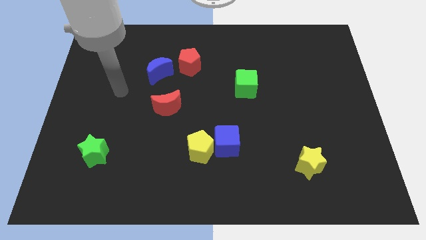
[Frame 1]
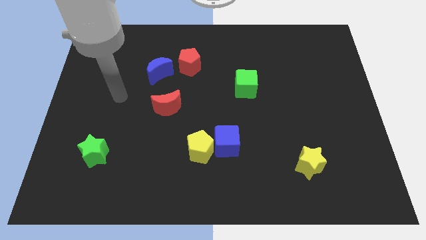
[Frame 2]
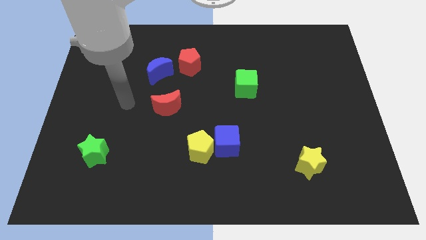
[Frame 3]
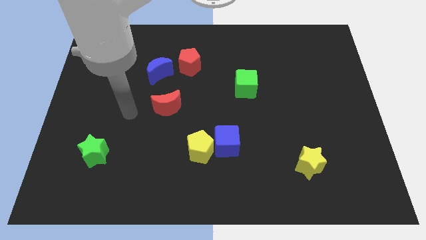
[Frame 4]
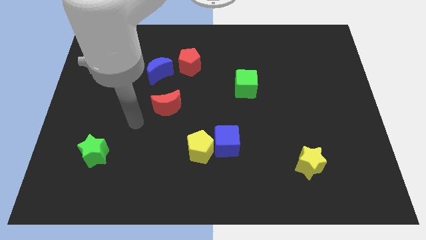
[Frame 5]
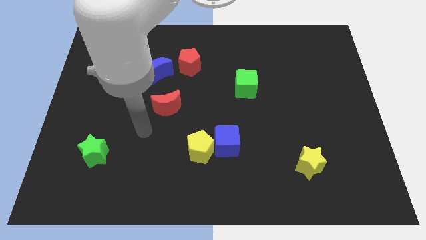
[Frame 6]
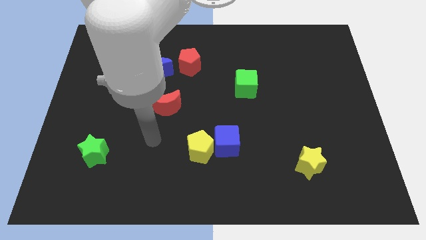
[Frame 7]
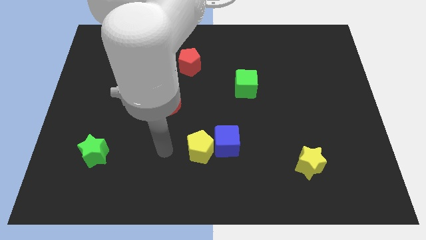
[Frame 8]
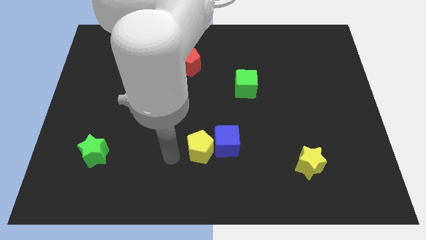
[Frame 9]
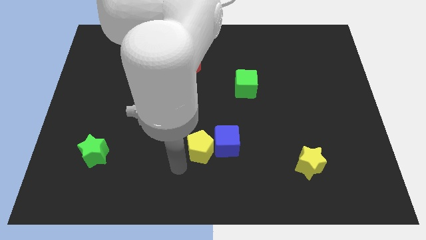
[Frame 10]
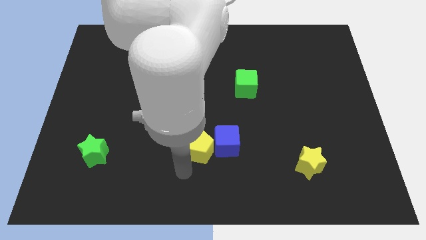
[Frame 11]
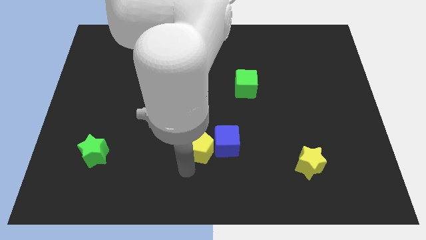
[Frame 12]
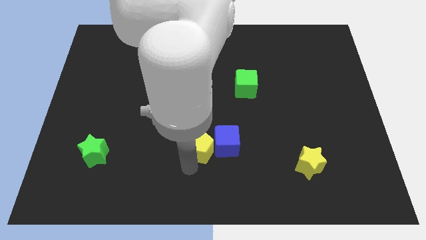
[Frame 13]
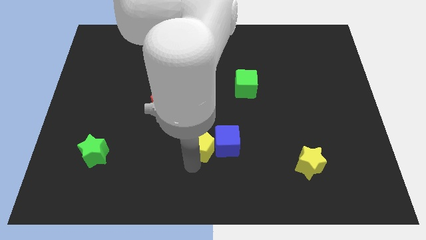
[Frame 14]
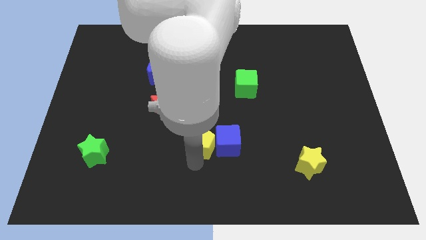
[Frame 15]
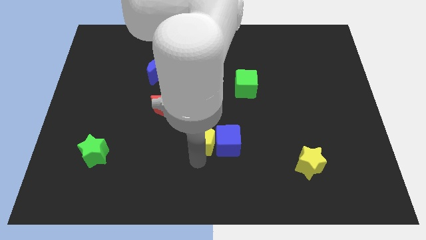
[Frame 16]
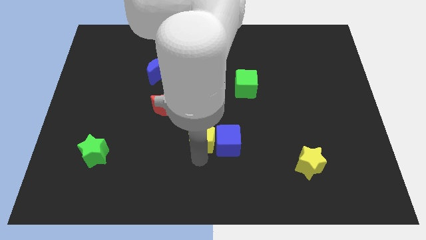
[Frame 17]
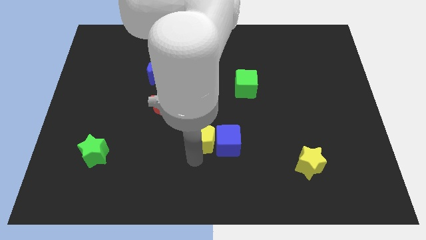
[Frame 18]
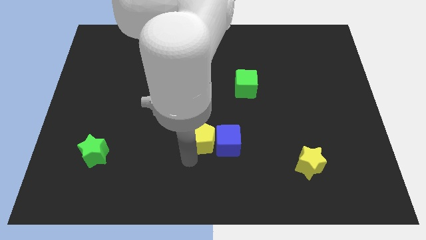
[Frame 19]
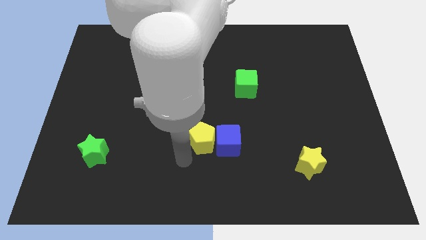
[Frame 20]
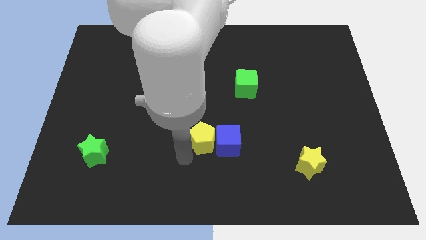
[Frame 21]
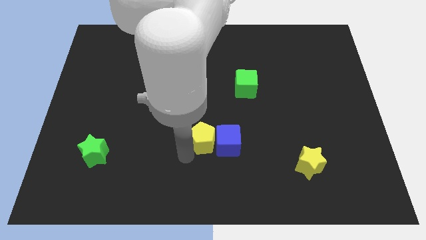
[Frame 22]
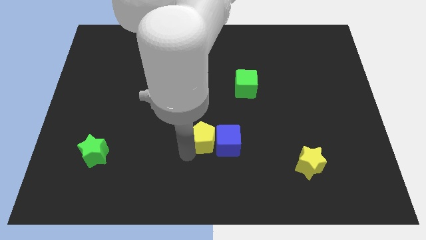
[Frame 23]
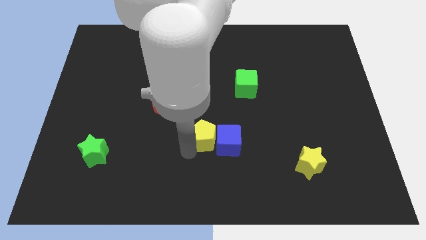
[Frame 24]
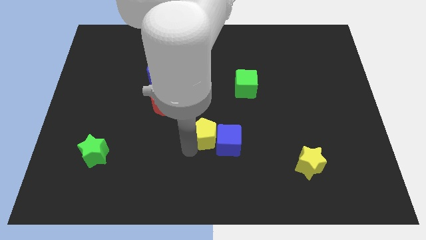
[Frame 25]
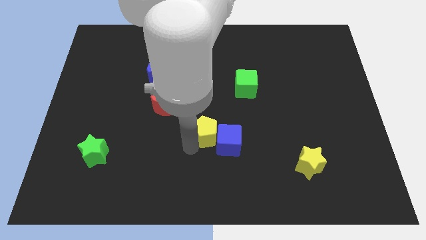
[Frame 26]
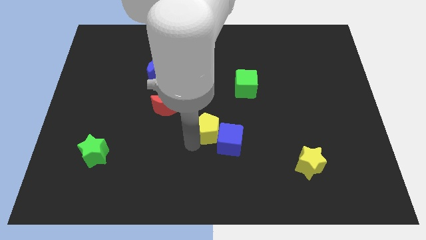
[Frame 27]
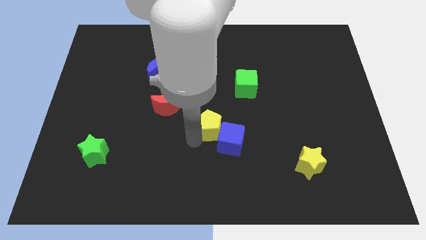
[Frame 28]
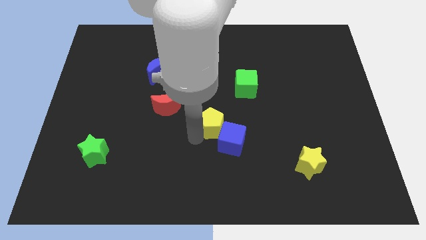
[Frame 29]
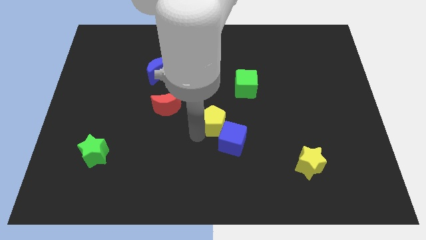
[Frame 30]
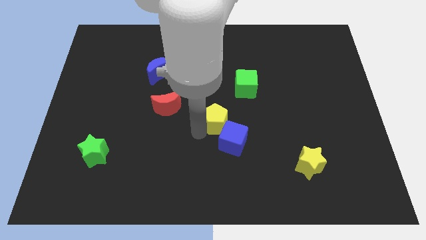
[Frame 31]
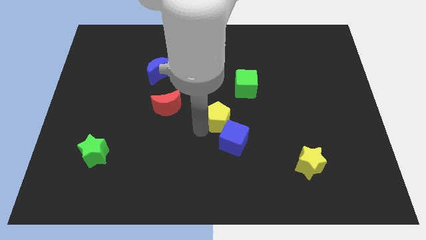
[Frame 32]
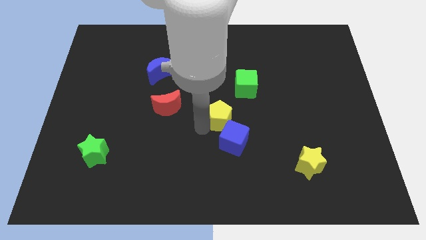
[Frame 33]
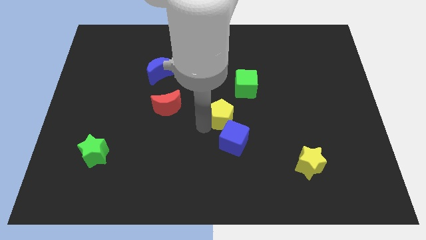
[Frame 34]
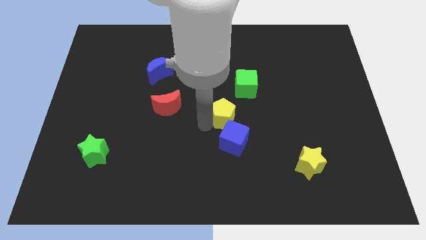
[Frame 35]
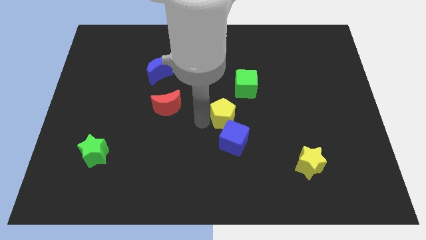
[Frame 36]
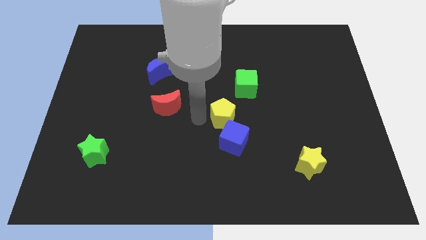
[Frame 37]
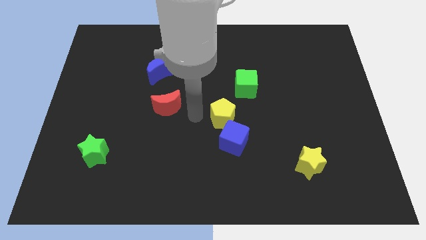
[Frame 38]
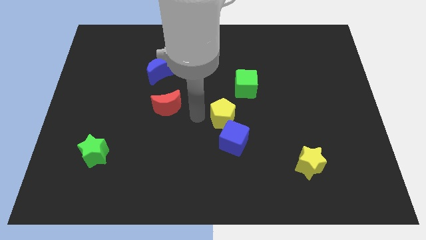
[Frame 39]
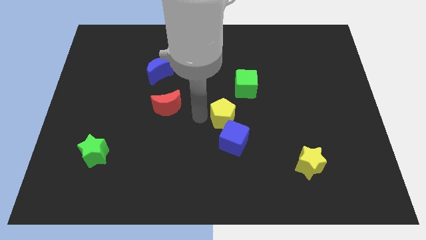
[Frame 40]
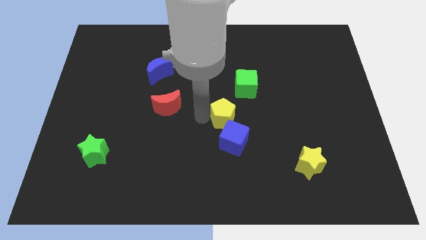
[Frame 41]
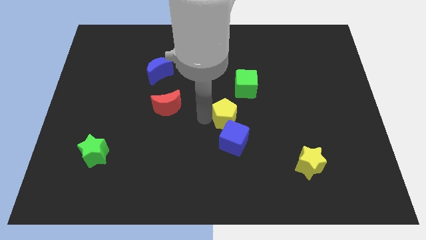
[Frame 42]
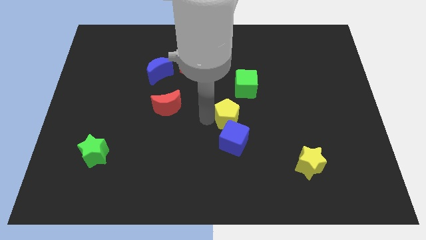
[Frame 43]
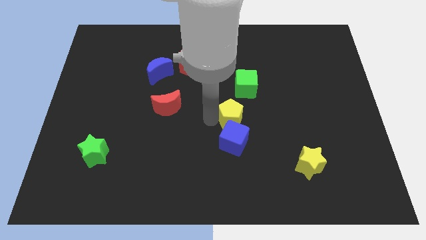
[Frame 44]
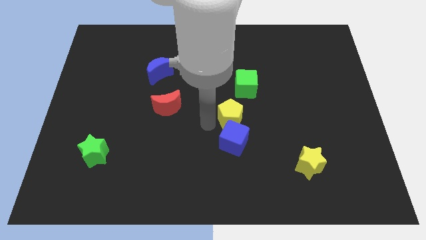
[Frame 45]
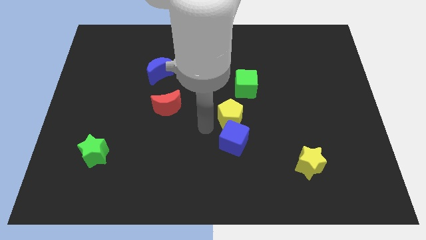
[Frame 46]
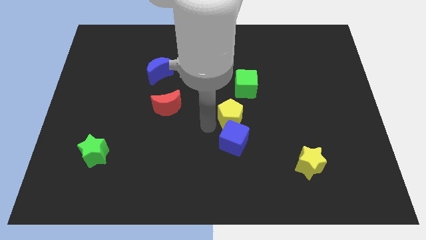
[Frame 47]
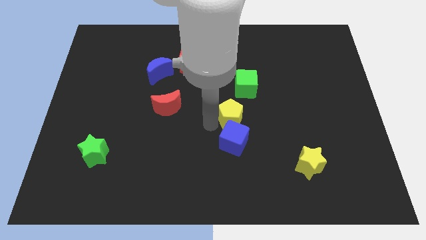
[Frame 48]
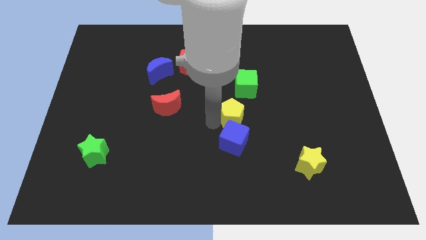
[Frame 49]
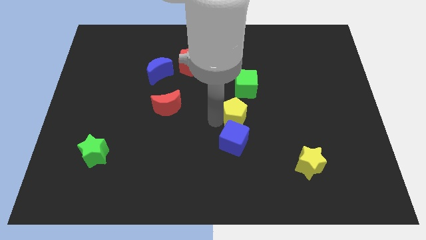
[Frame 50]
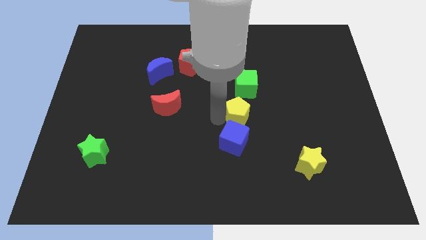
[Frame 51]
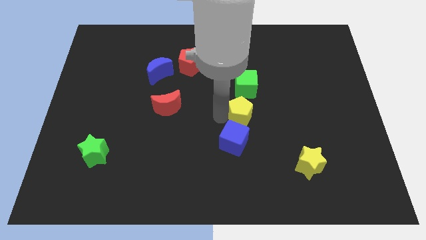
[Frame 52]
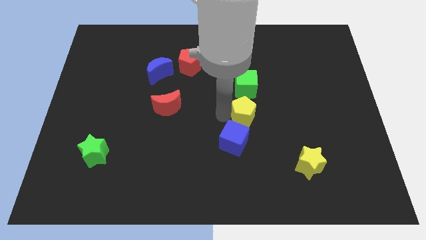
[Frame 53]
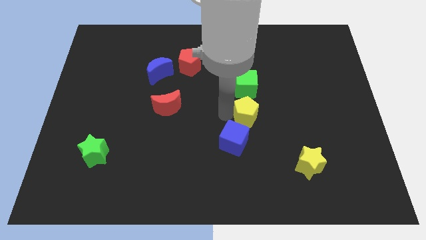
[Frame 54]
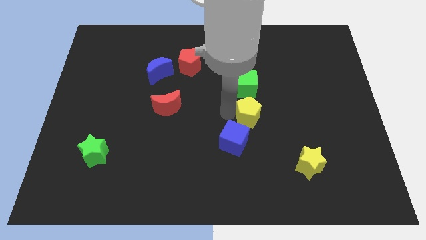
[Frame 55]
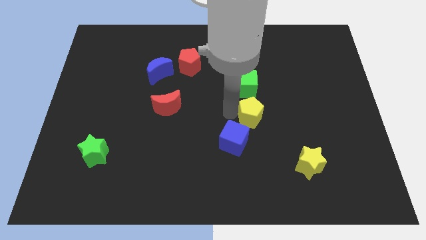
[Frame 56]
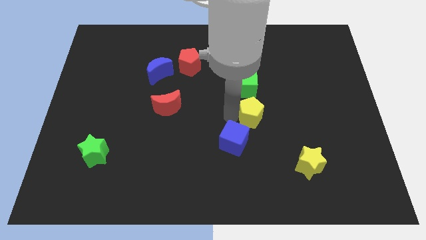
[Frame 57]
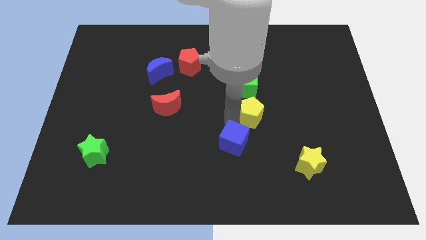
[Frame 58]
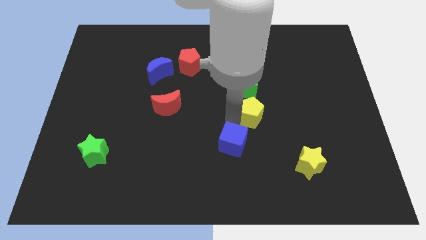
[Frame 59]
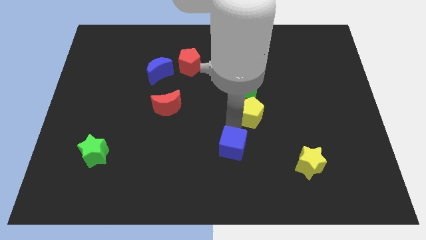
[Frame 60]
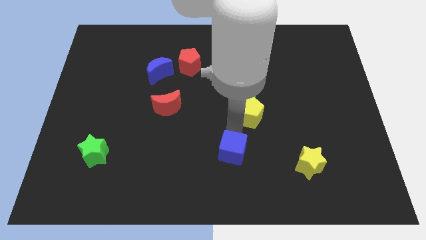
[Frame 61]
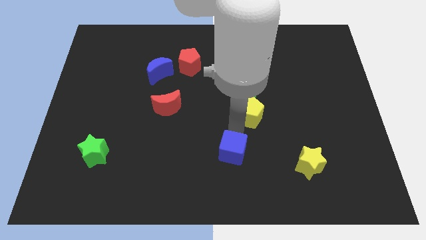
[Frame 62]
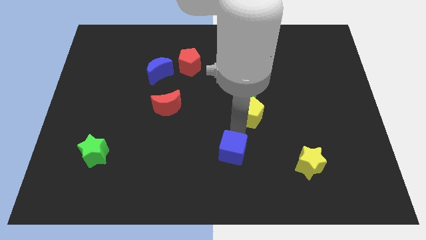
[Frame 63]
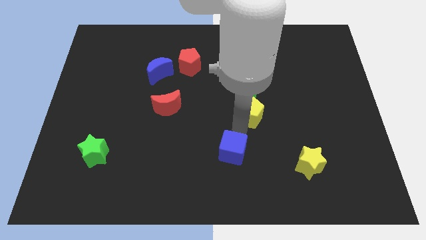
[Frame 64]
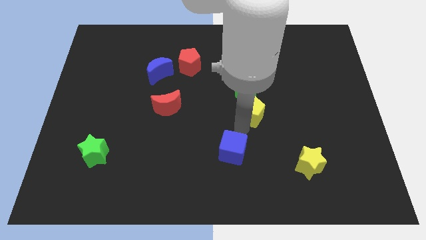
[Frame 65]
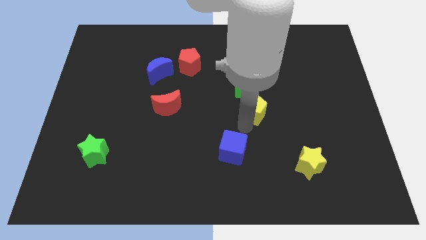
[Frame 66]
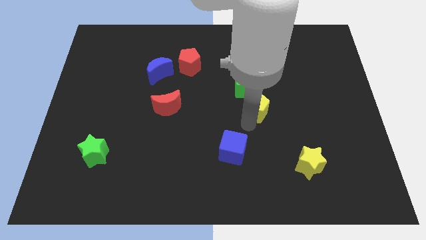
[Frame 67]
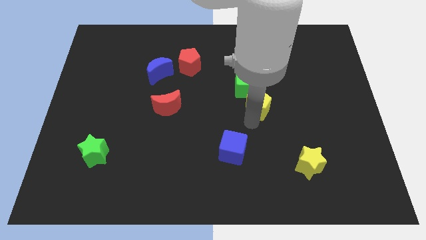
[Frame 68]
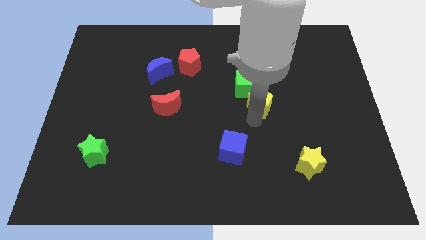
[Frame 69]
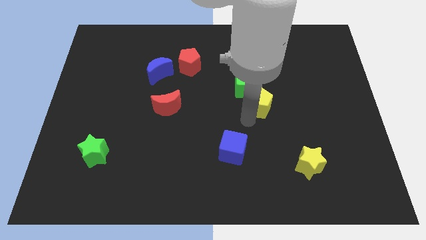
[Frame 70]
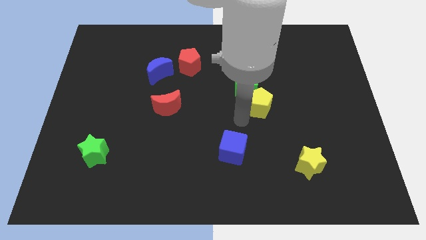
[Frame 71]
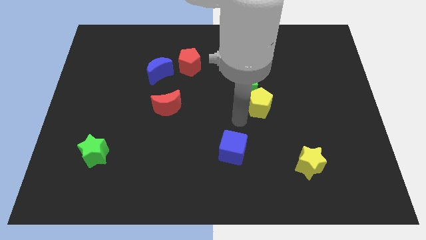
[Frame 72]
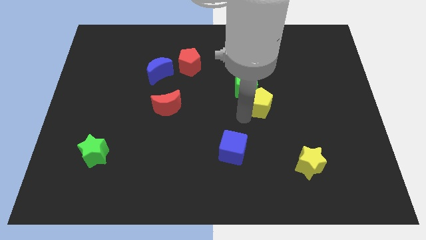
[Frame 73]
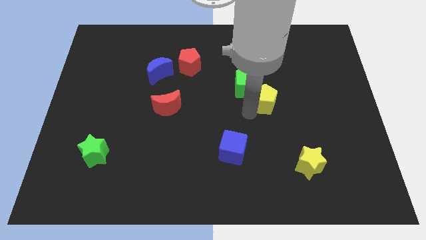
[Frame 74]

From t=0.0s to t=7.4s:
move the yellow pentagon up and right diagonally

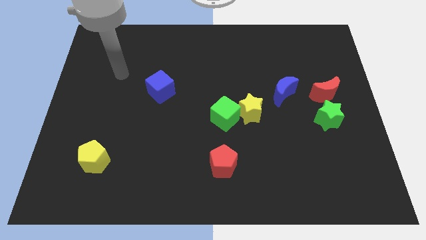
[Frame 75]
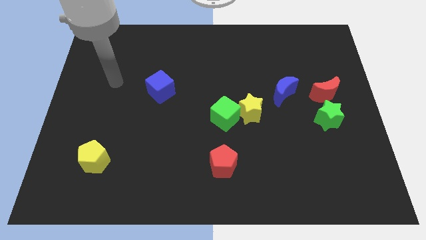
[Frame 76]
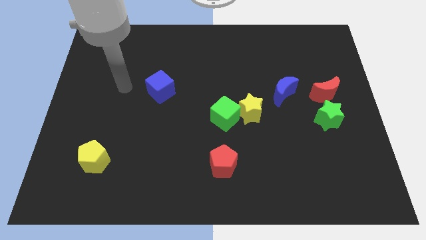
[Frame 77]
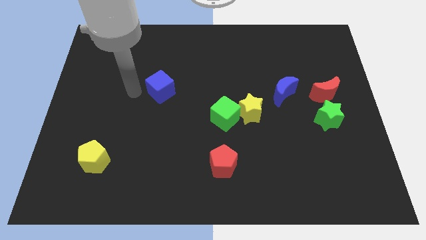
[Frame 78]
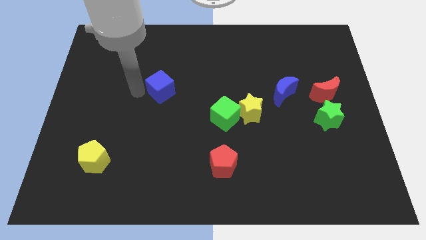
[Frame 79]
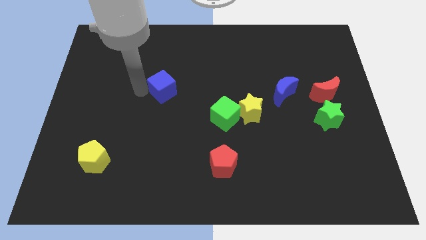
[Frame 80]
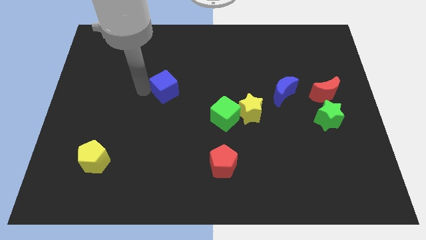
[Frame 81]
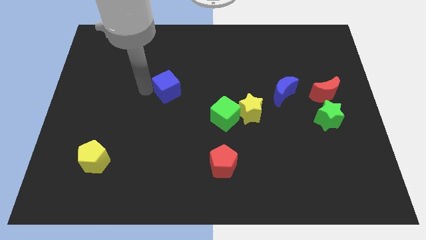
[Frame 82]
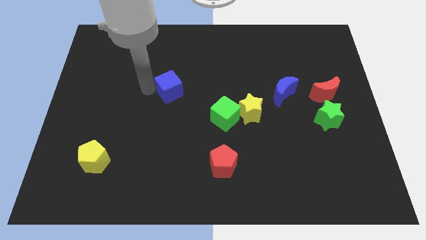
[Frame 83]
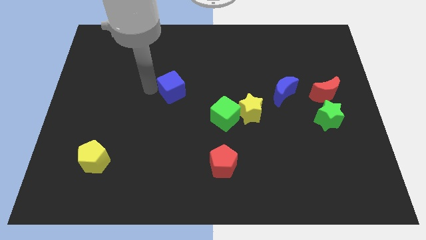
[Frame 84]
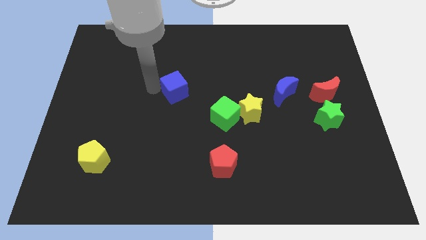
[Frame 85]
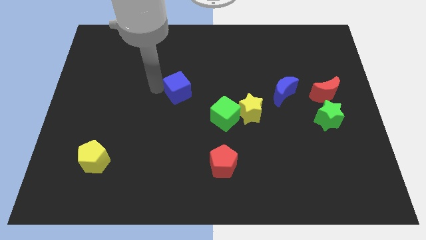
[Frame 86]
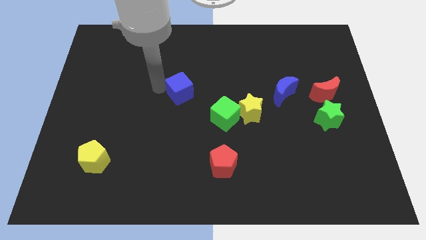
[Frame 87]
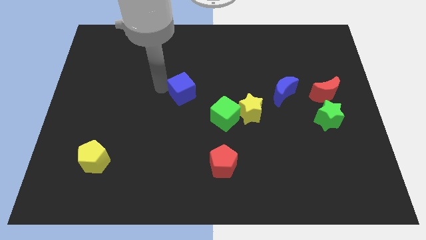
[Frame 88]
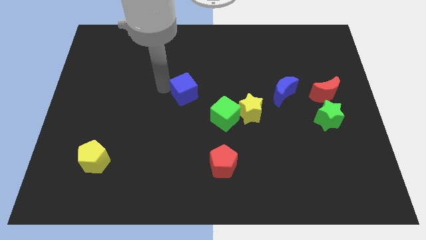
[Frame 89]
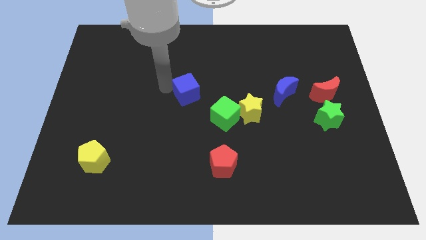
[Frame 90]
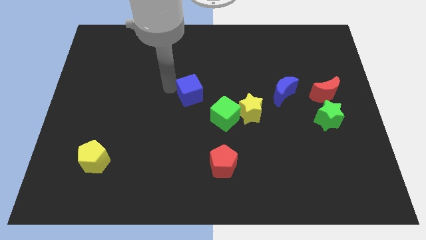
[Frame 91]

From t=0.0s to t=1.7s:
slightly push the blue cube to the right
